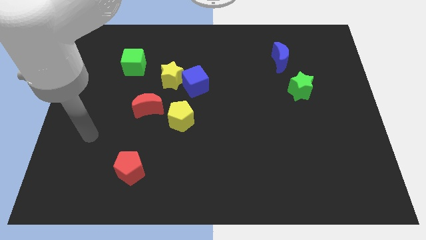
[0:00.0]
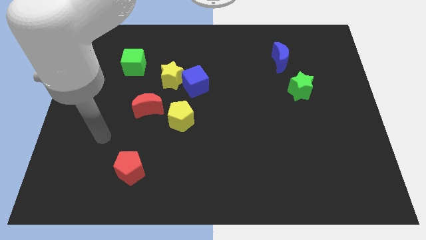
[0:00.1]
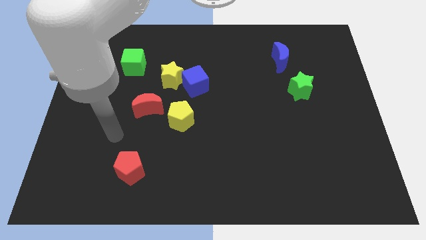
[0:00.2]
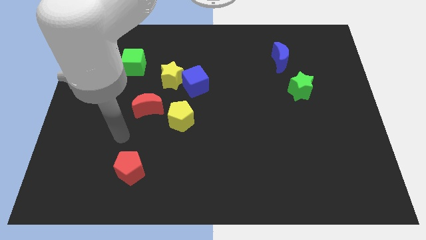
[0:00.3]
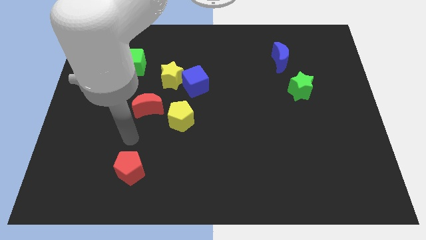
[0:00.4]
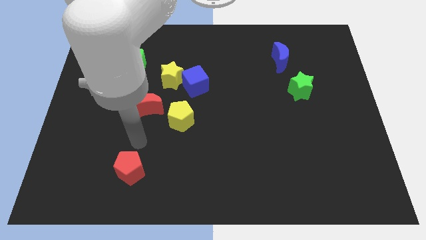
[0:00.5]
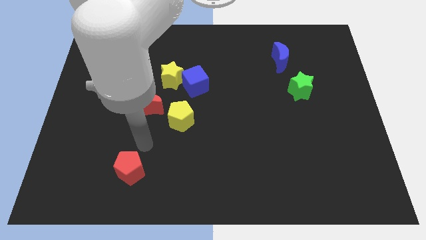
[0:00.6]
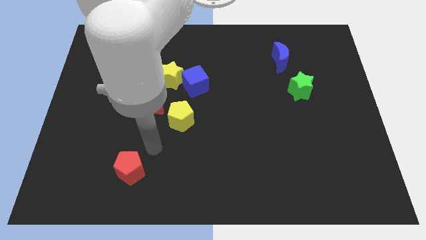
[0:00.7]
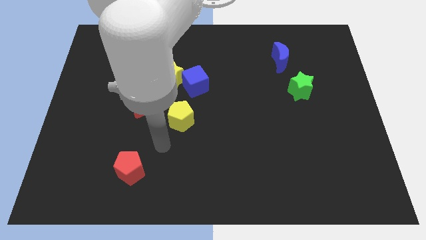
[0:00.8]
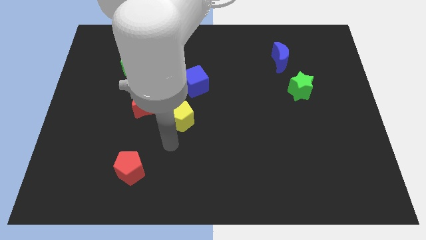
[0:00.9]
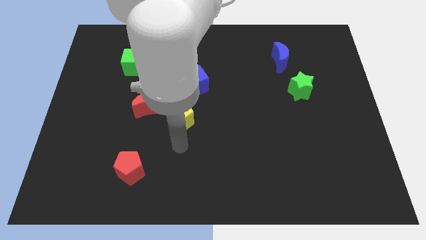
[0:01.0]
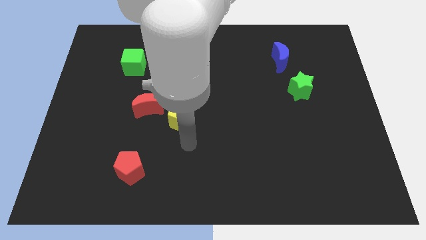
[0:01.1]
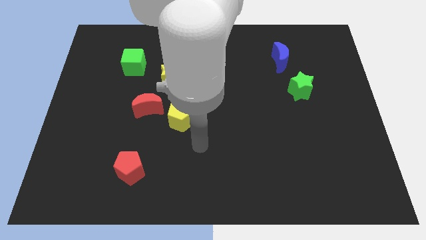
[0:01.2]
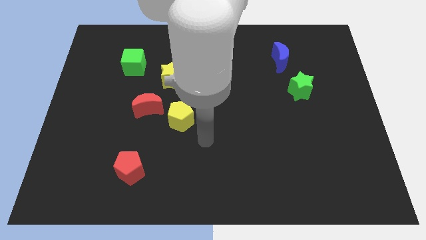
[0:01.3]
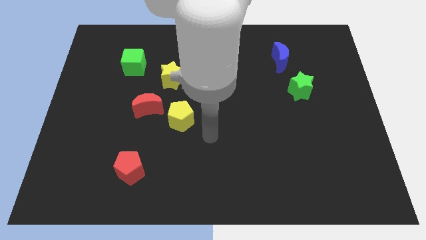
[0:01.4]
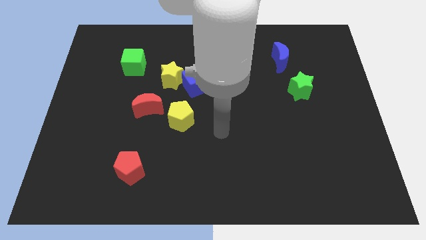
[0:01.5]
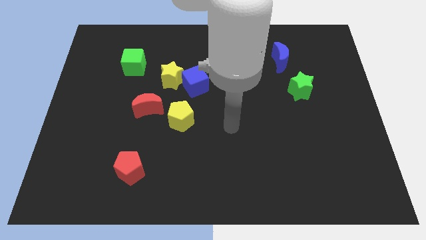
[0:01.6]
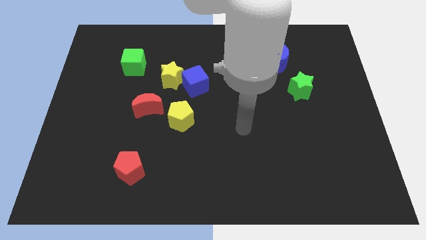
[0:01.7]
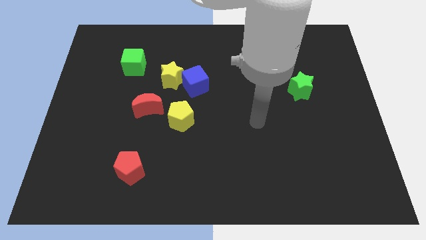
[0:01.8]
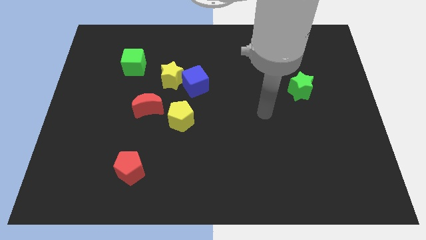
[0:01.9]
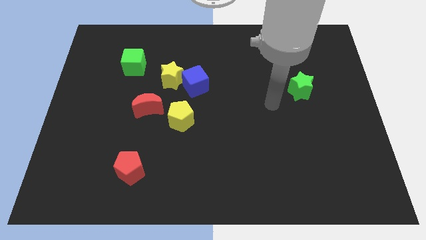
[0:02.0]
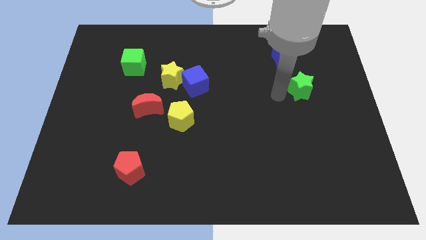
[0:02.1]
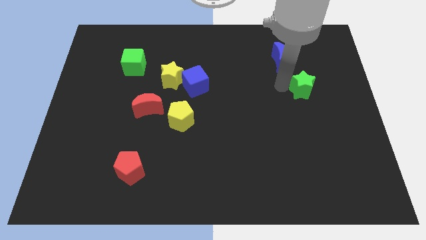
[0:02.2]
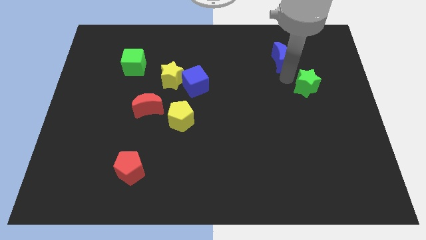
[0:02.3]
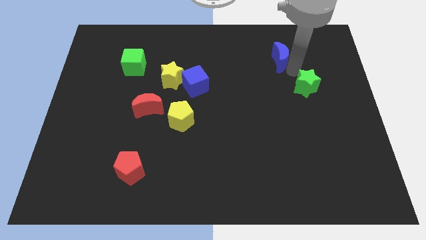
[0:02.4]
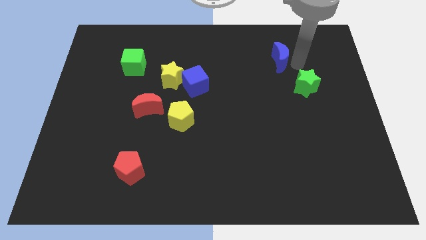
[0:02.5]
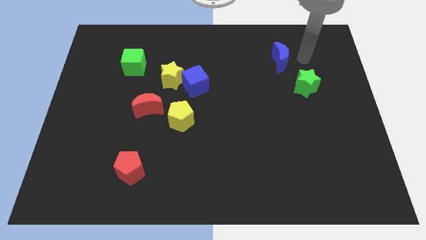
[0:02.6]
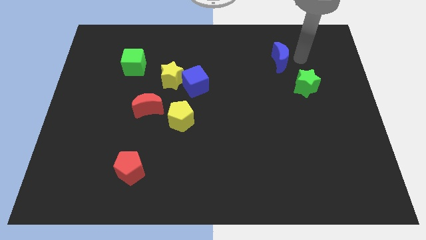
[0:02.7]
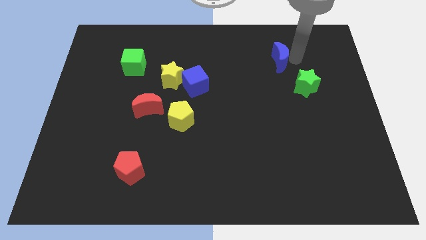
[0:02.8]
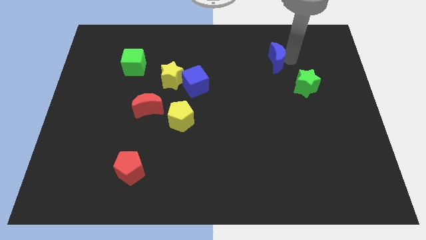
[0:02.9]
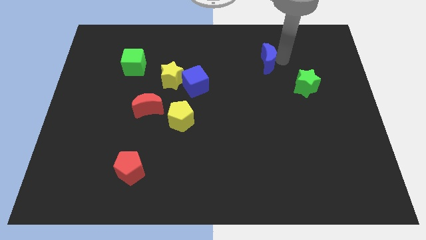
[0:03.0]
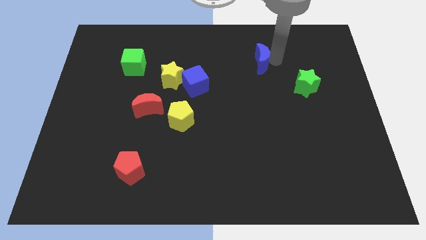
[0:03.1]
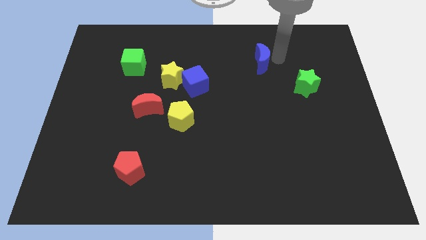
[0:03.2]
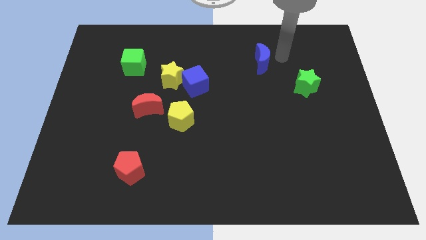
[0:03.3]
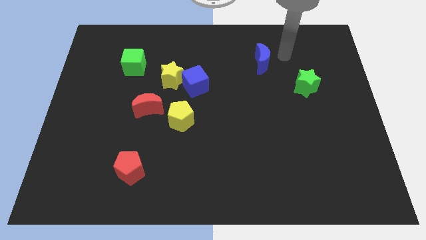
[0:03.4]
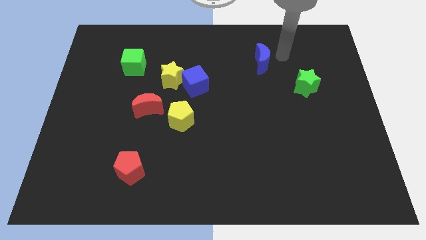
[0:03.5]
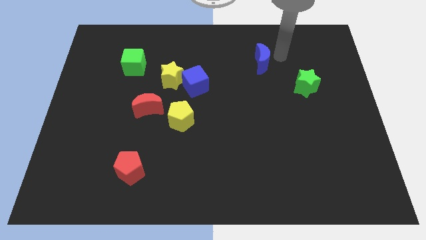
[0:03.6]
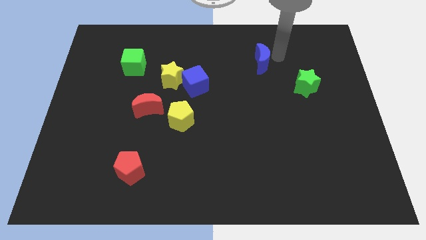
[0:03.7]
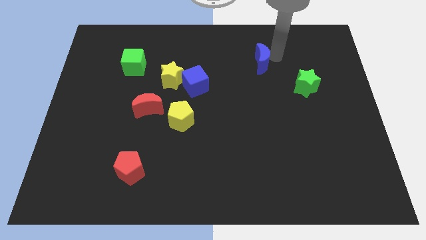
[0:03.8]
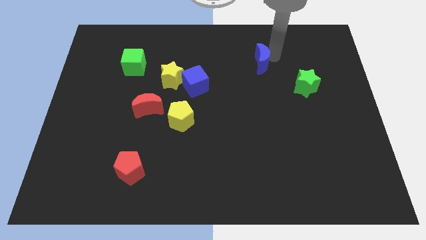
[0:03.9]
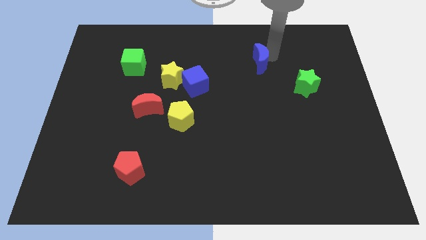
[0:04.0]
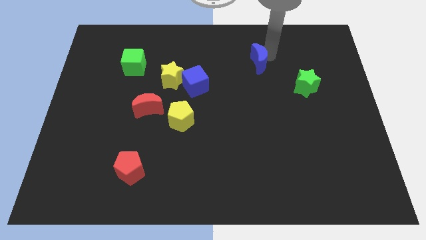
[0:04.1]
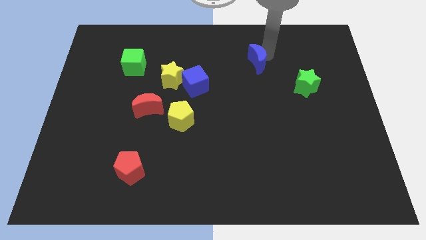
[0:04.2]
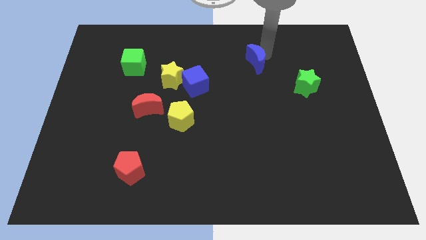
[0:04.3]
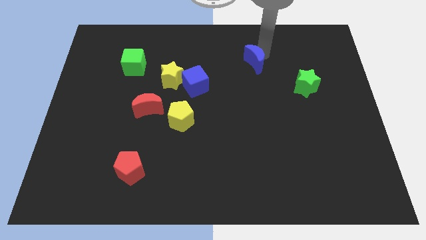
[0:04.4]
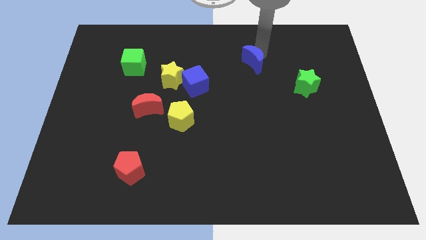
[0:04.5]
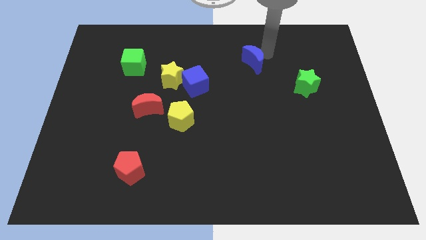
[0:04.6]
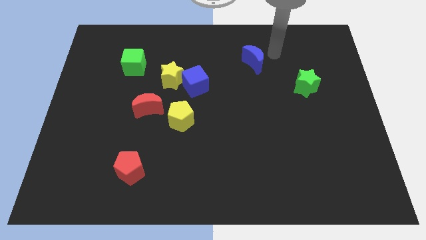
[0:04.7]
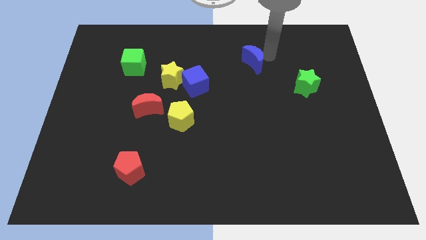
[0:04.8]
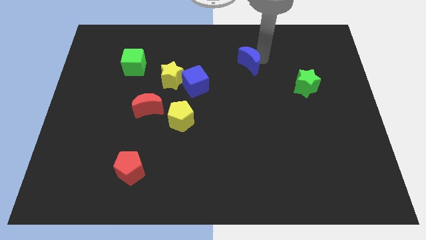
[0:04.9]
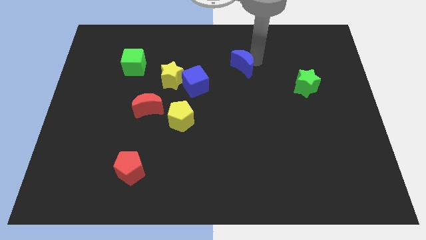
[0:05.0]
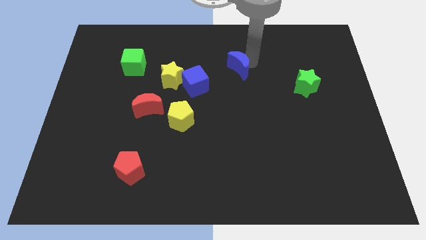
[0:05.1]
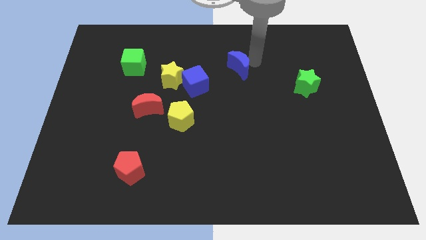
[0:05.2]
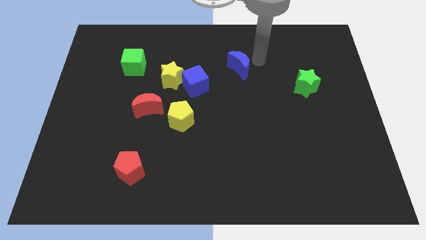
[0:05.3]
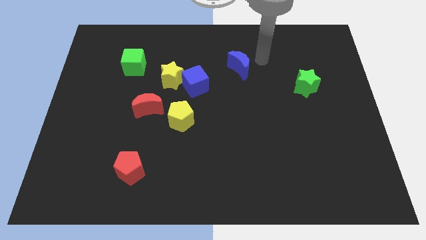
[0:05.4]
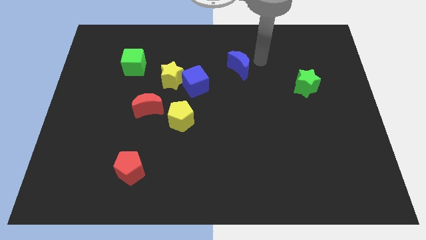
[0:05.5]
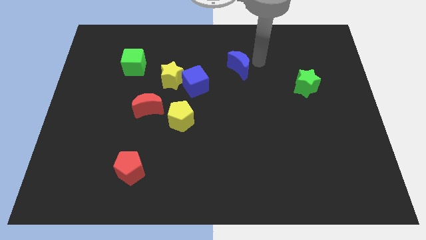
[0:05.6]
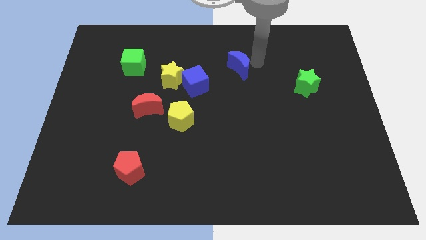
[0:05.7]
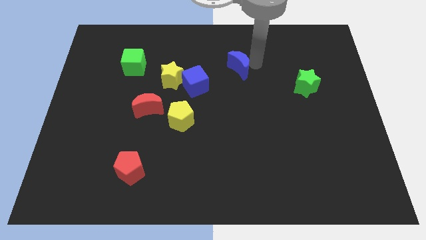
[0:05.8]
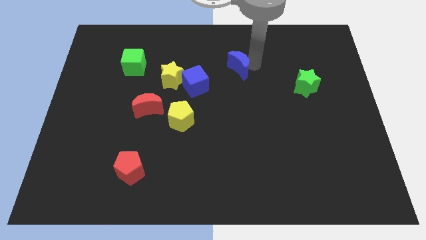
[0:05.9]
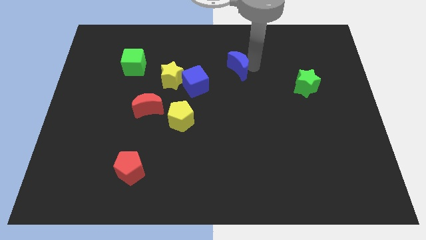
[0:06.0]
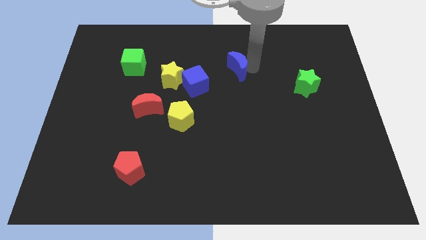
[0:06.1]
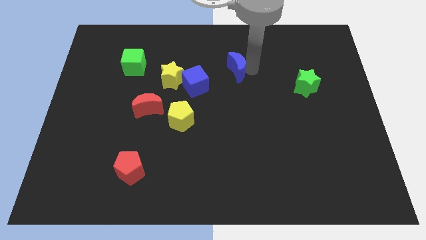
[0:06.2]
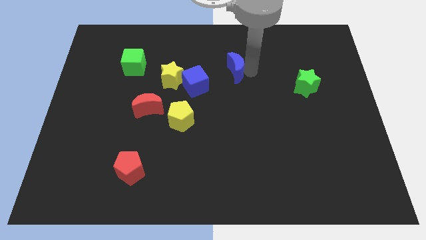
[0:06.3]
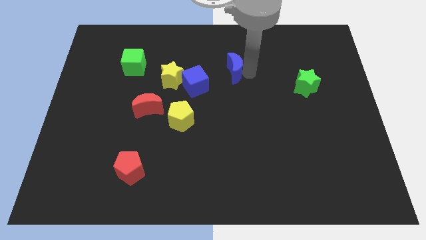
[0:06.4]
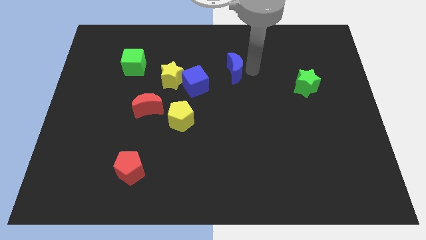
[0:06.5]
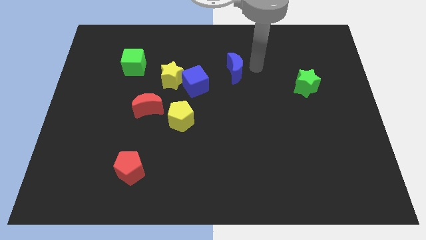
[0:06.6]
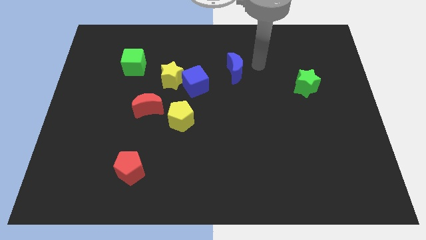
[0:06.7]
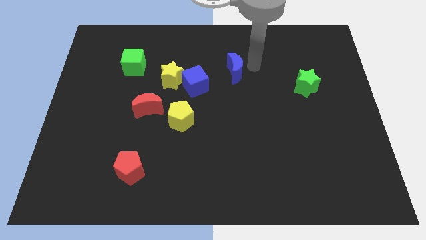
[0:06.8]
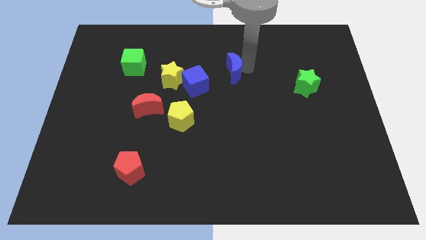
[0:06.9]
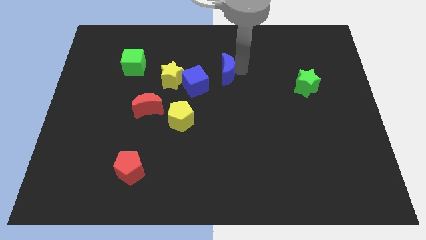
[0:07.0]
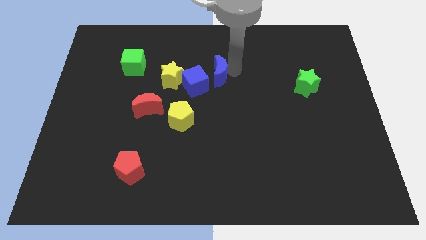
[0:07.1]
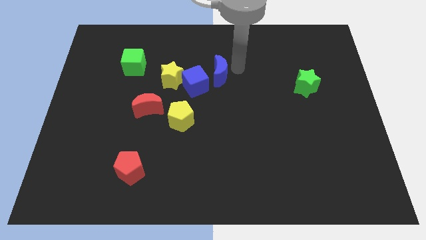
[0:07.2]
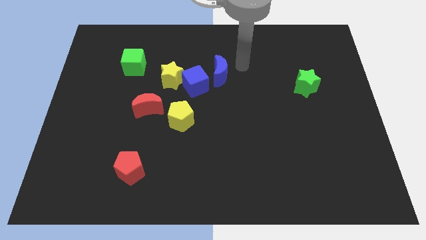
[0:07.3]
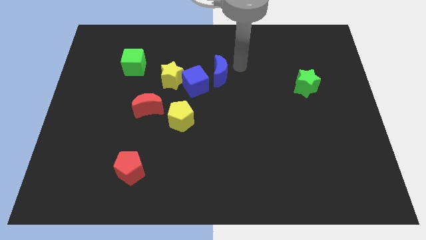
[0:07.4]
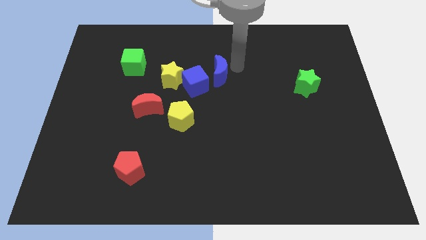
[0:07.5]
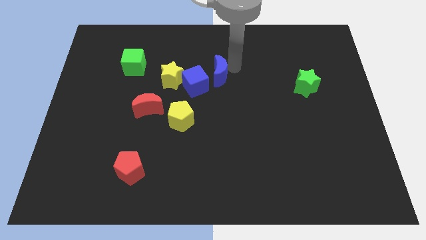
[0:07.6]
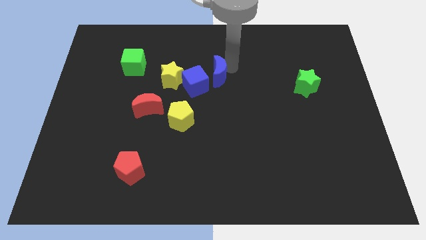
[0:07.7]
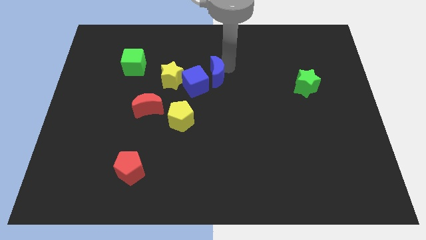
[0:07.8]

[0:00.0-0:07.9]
push the blue moon towards the blue cube

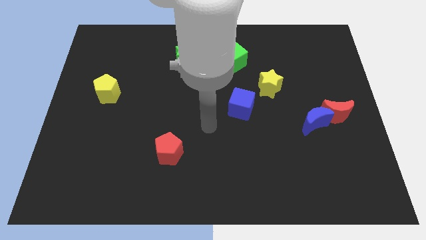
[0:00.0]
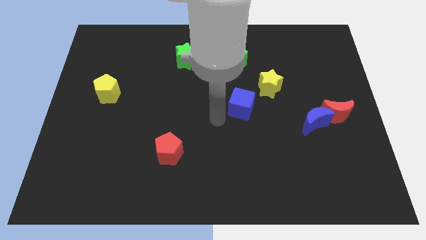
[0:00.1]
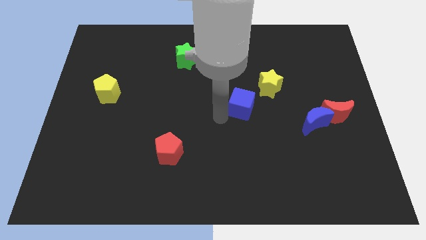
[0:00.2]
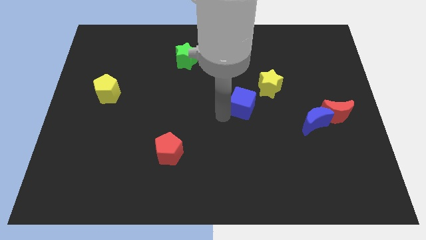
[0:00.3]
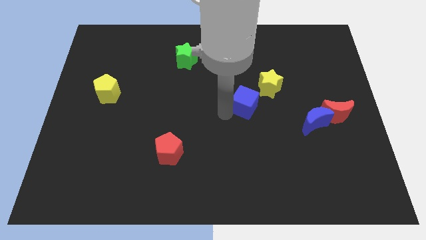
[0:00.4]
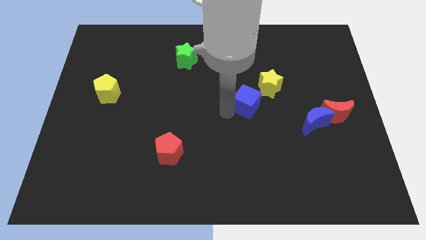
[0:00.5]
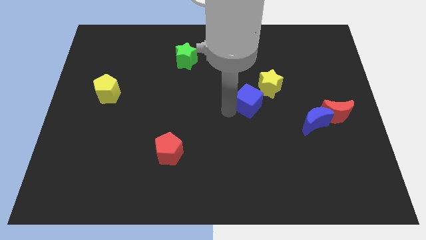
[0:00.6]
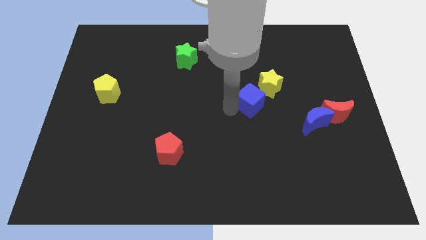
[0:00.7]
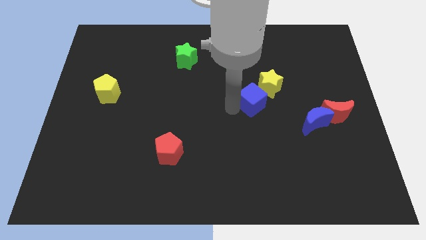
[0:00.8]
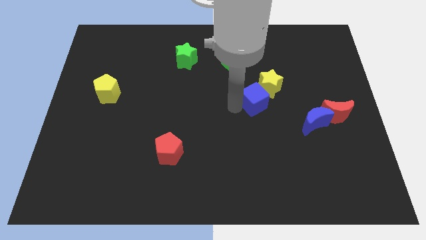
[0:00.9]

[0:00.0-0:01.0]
move the blue cube to the yellow star
